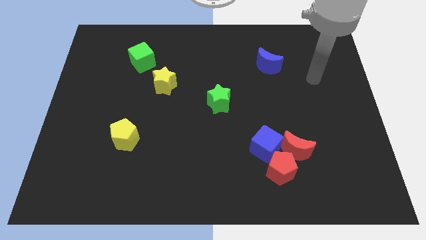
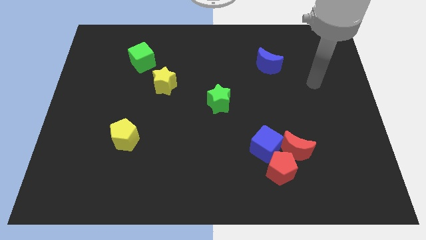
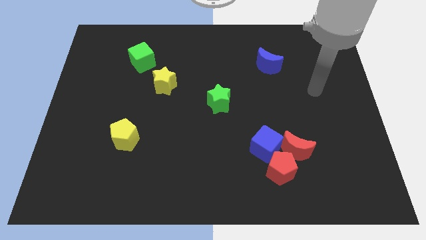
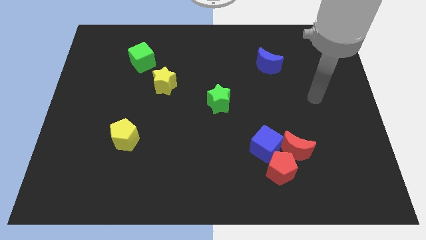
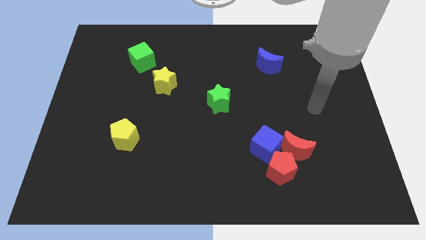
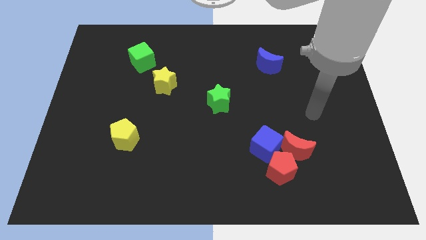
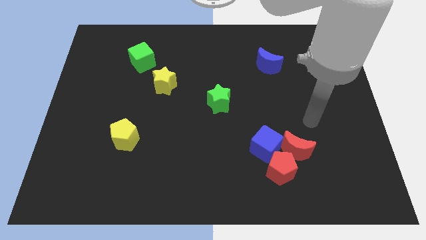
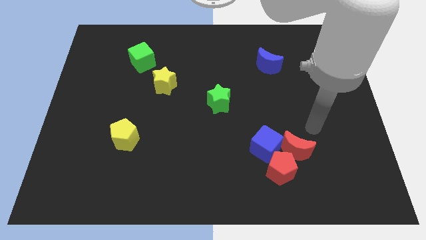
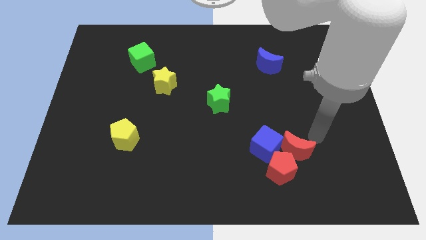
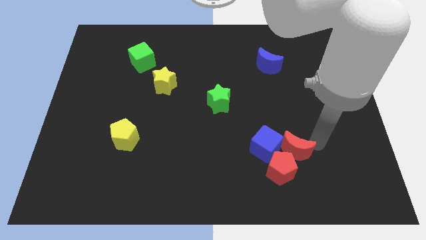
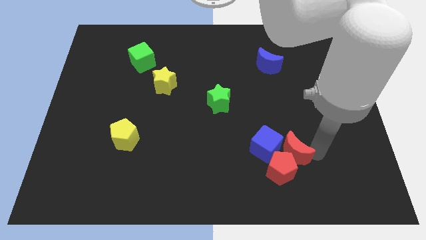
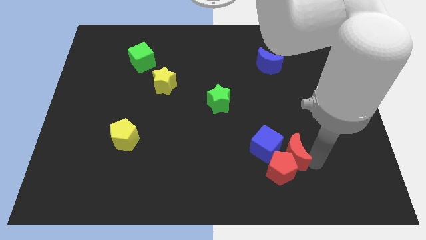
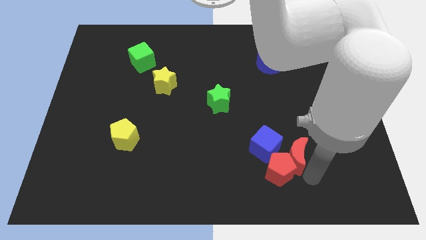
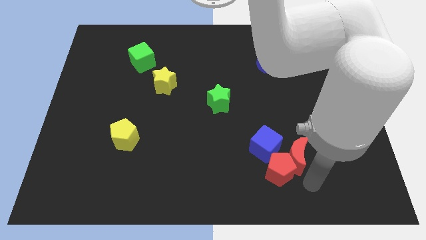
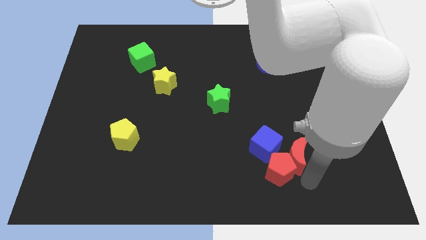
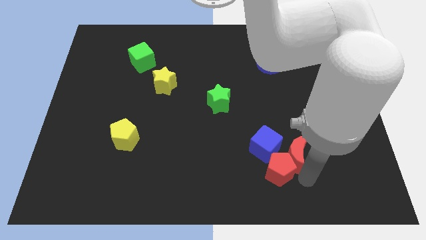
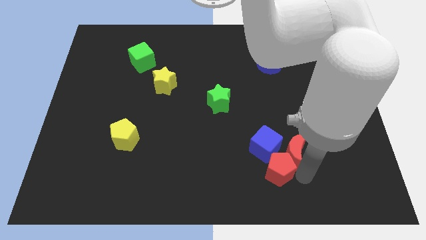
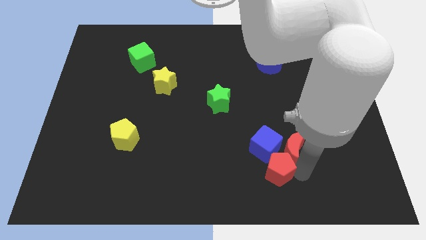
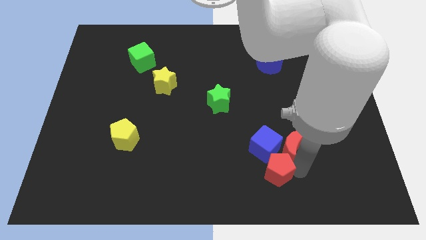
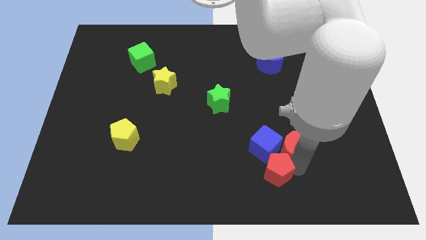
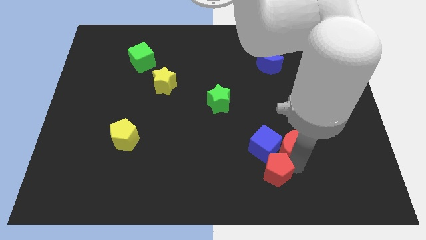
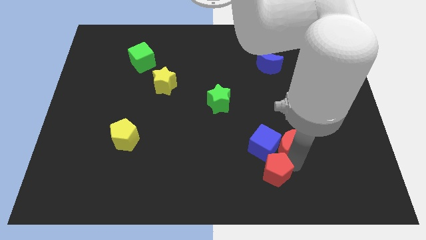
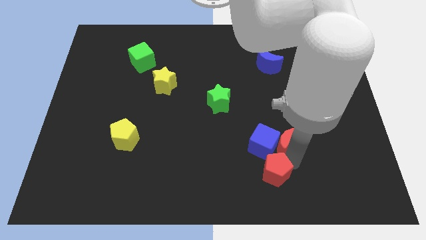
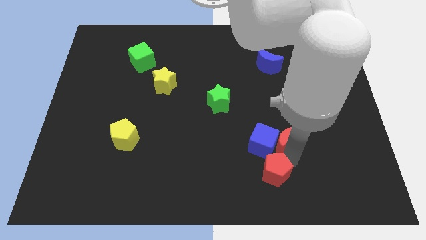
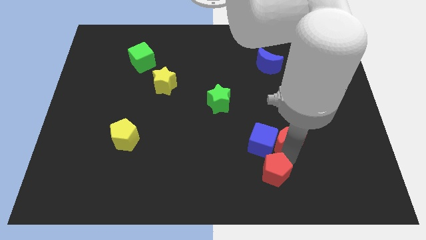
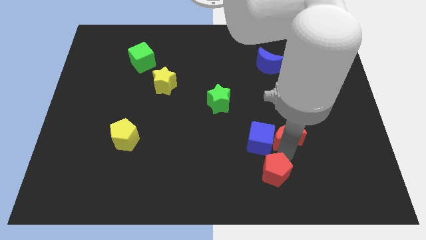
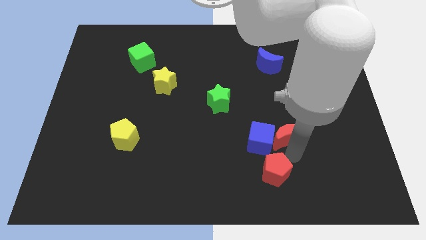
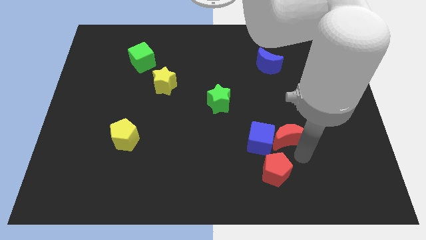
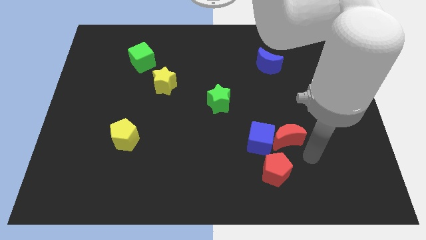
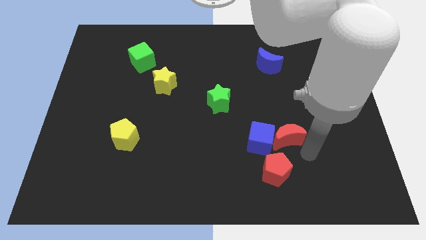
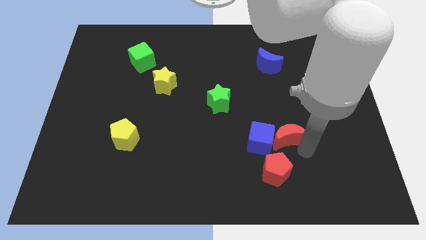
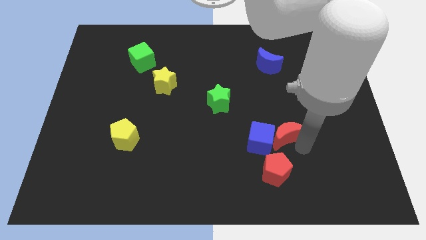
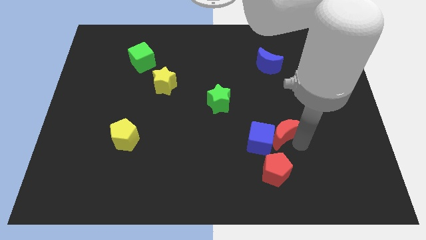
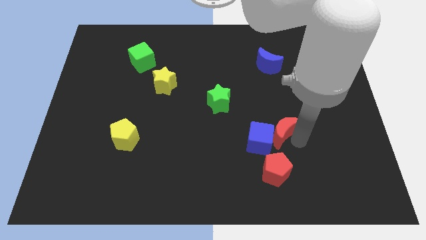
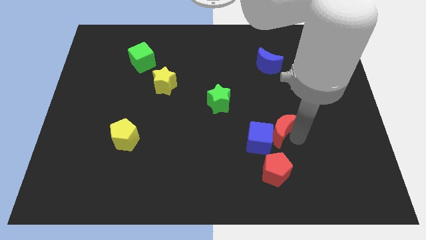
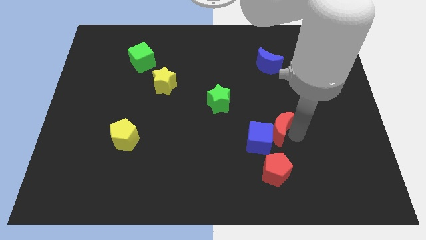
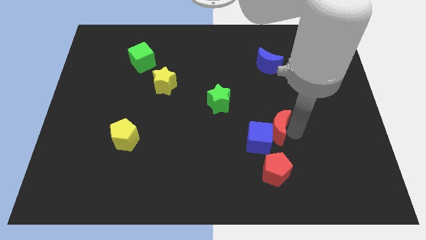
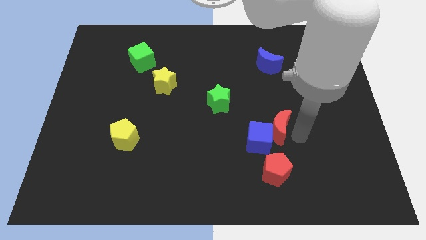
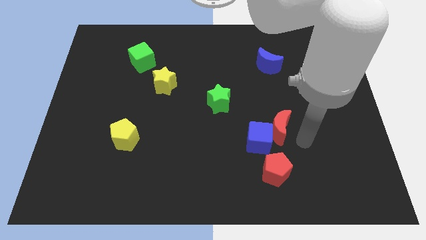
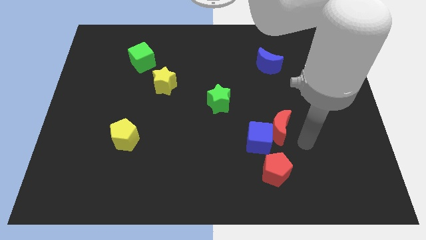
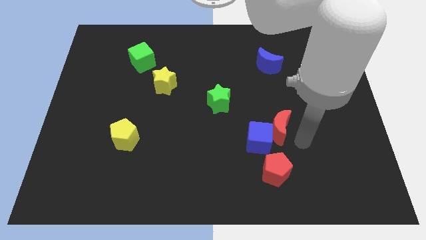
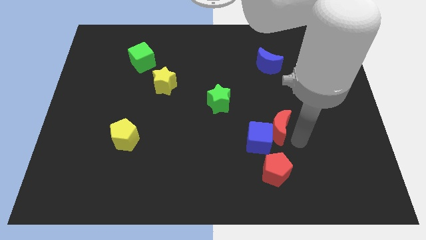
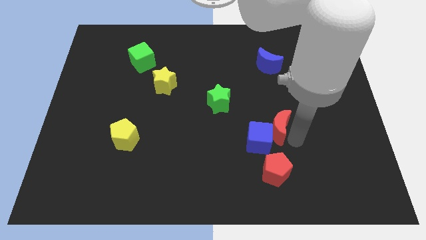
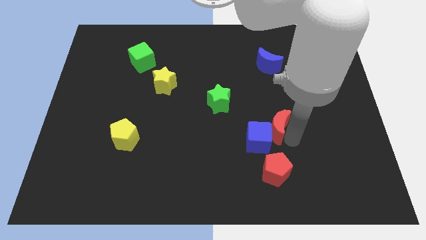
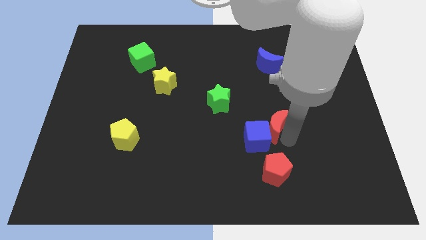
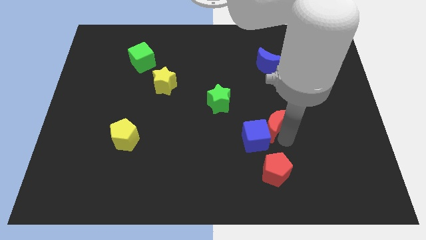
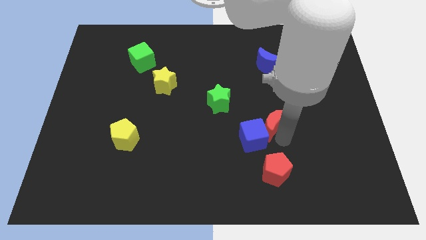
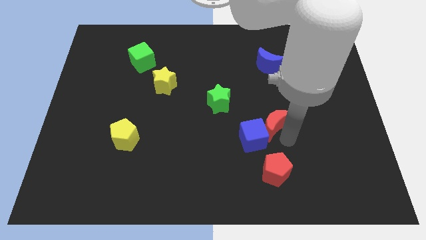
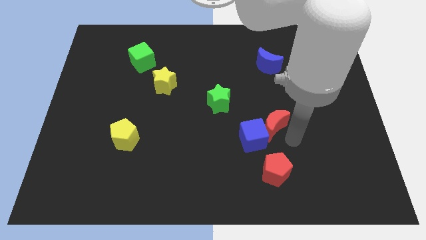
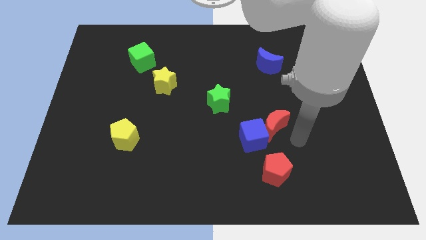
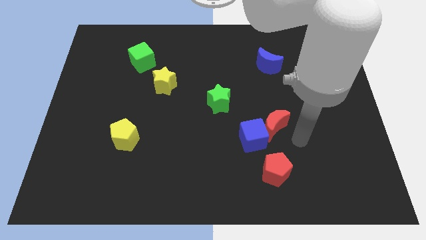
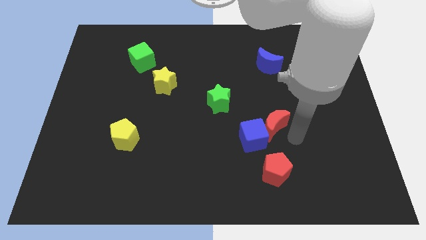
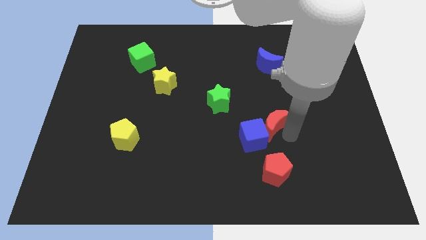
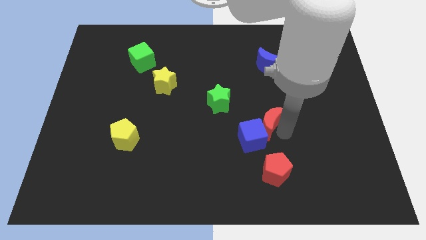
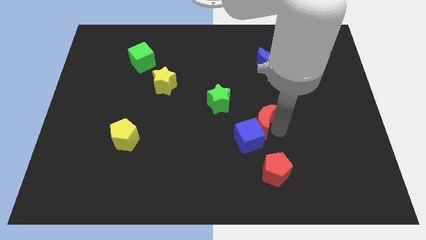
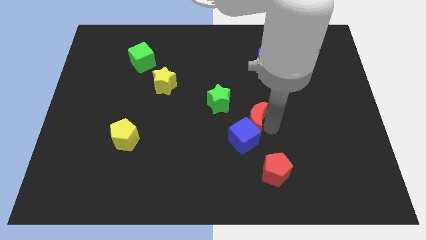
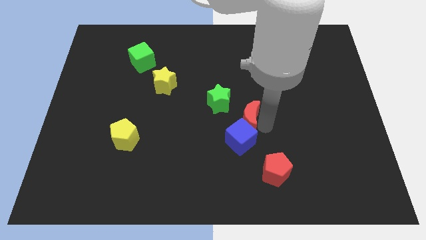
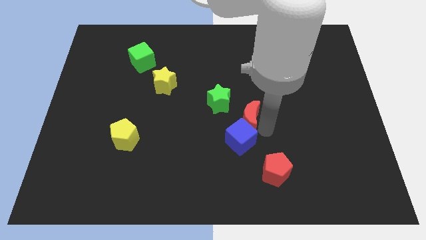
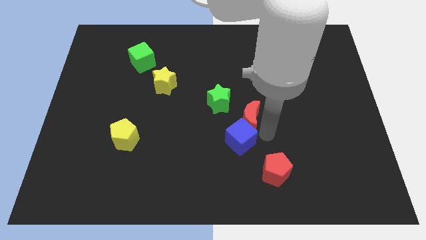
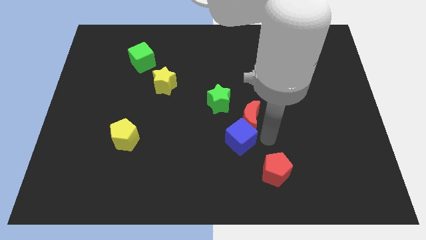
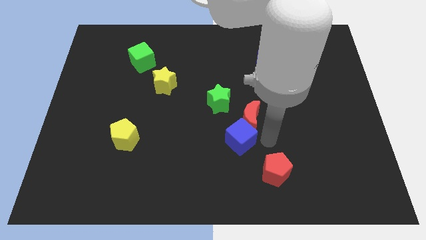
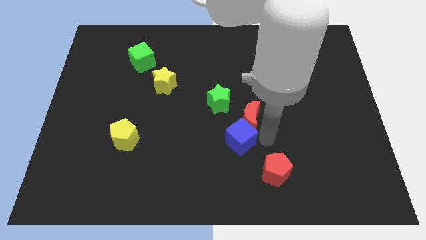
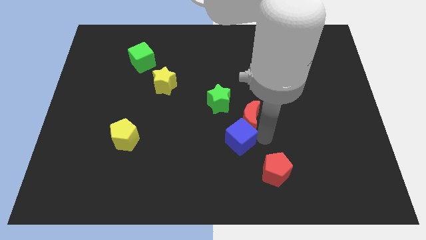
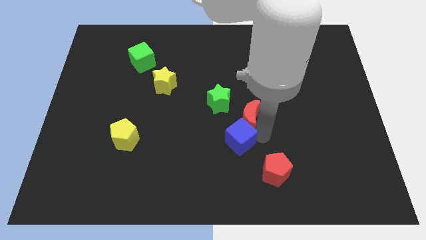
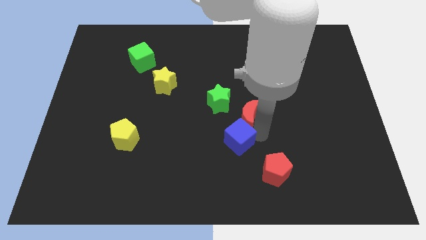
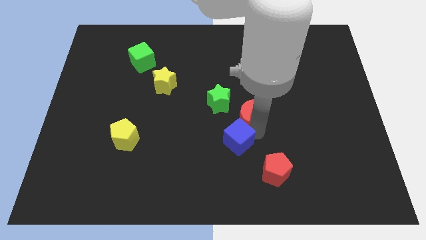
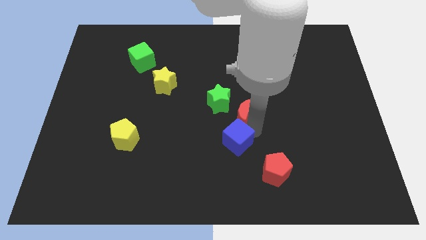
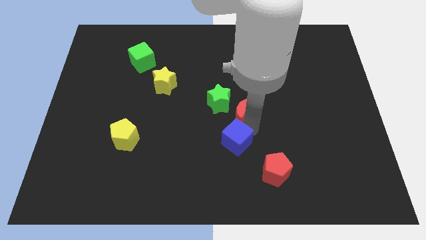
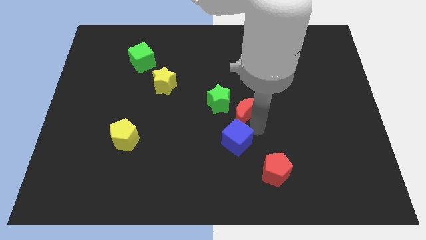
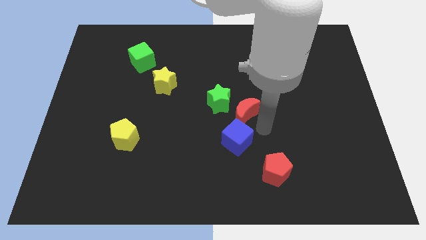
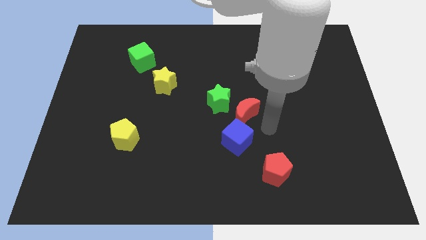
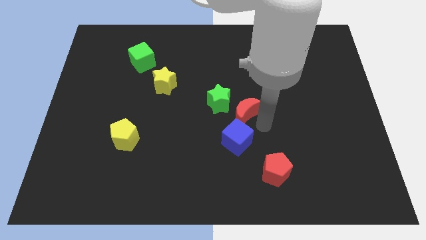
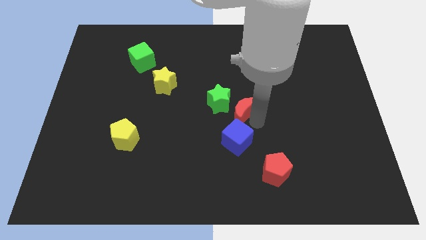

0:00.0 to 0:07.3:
put the red moon towards the green star
